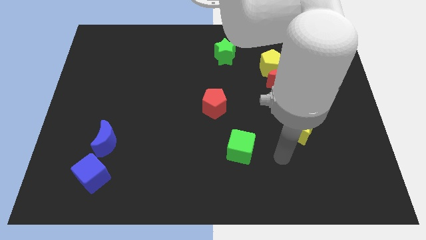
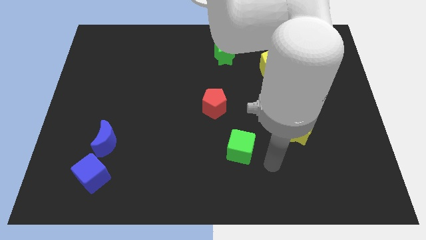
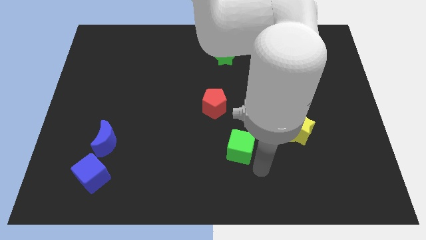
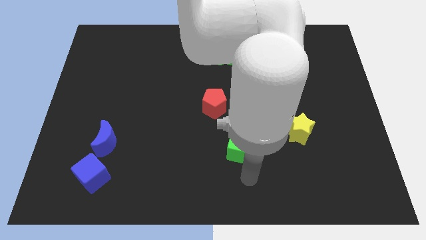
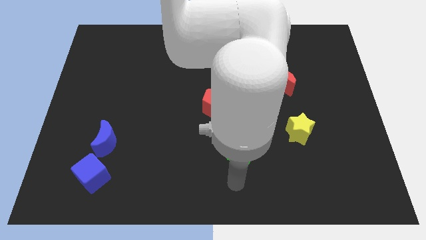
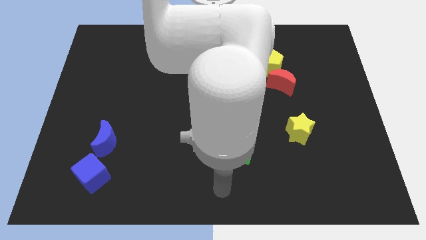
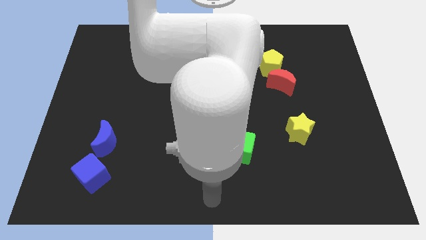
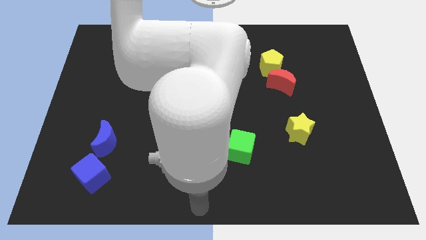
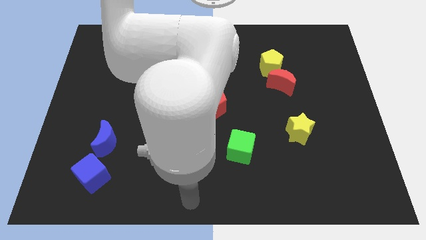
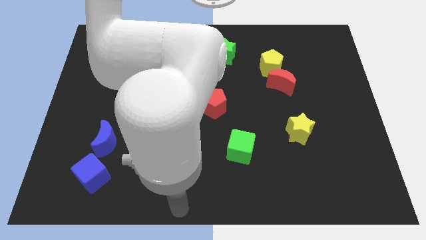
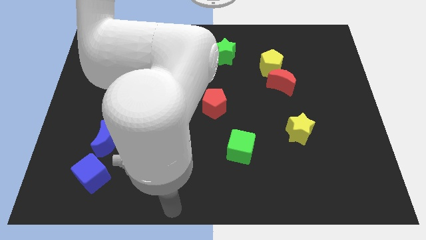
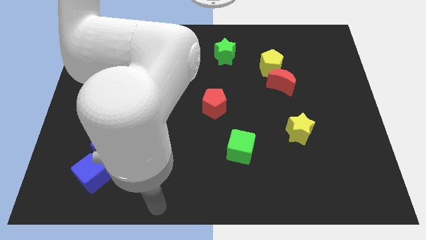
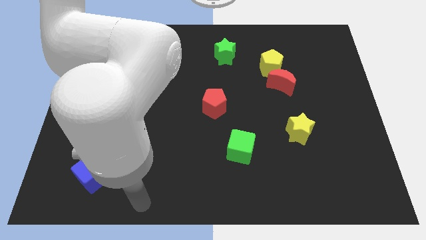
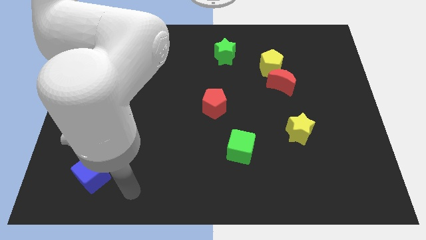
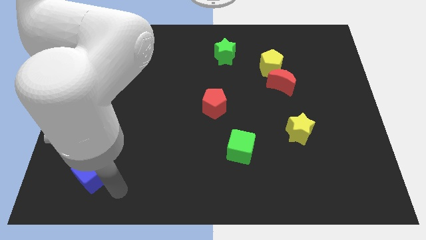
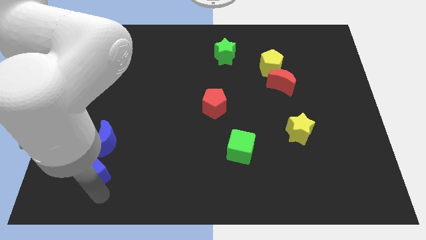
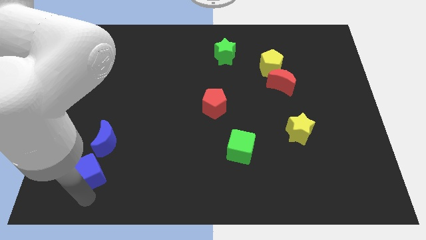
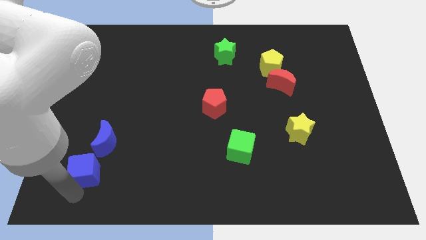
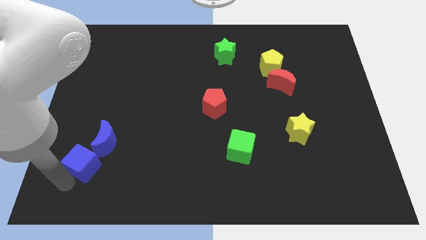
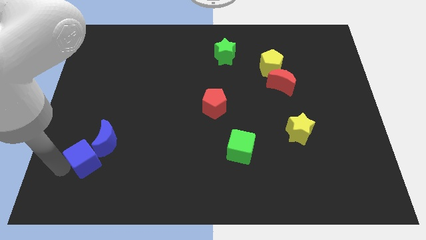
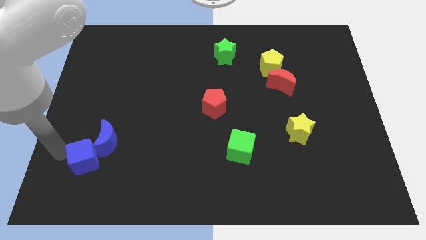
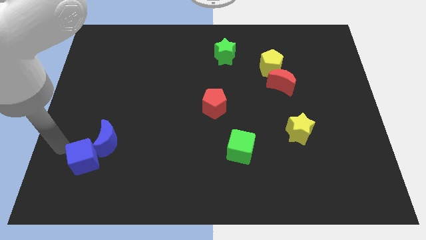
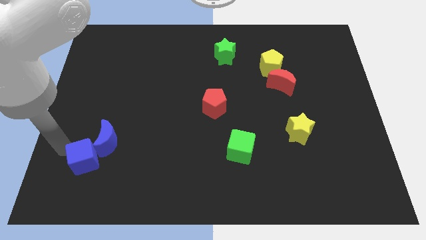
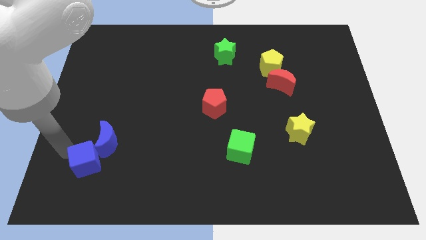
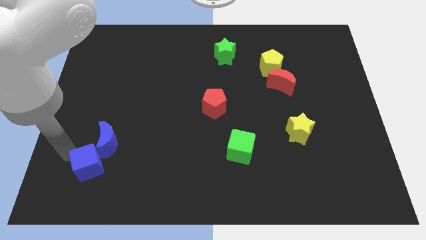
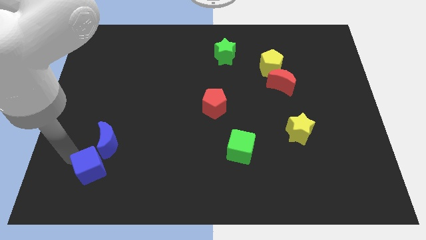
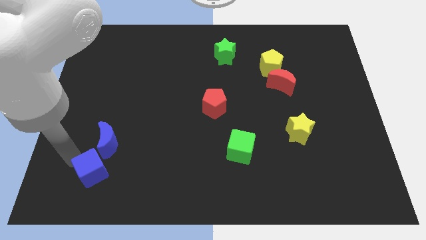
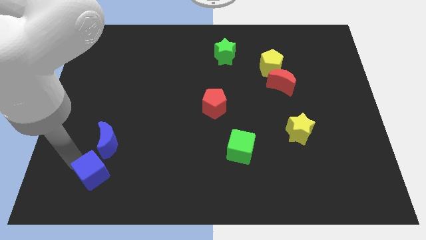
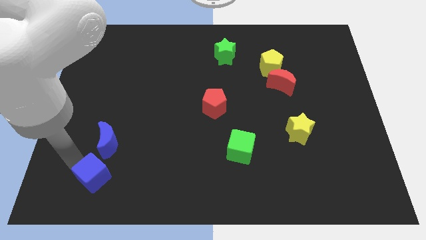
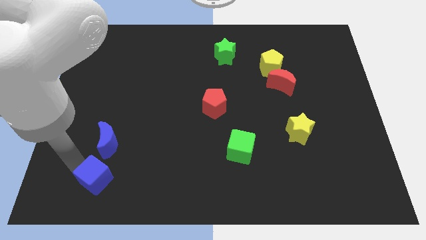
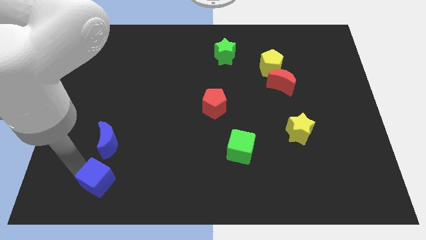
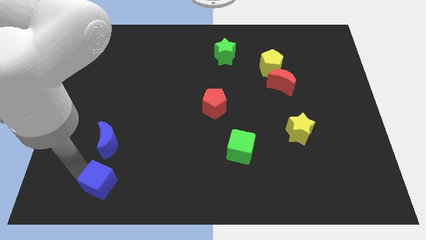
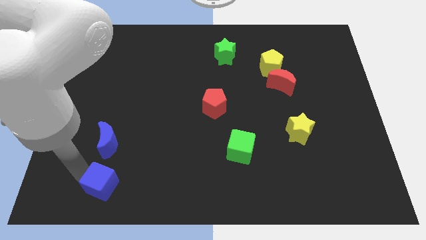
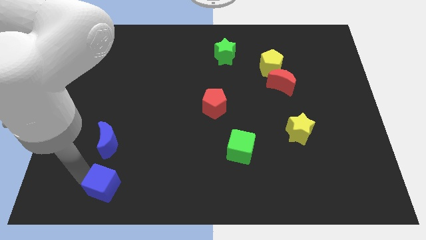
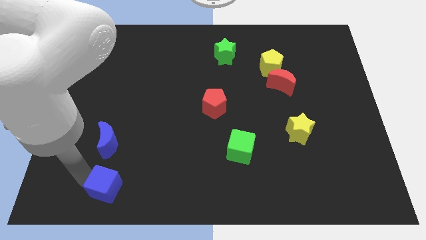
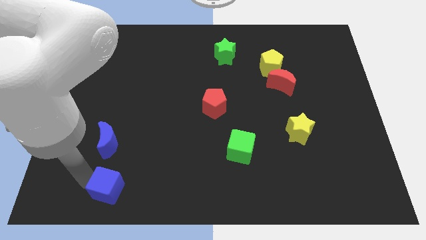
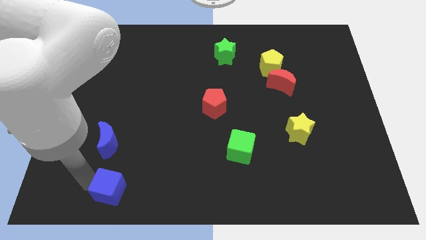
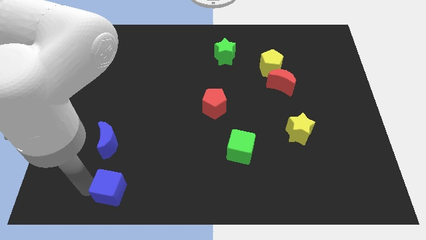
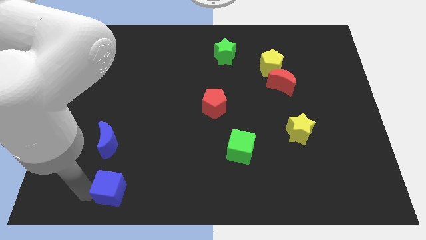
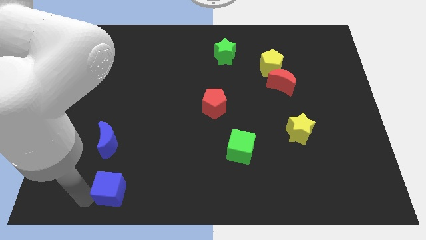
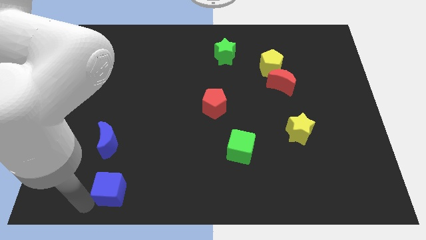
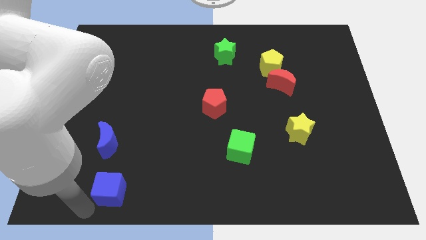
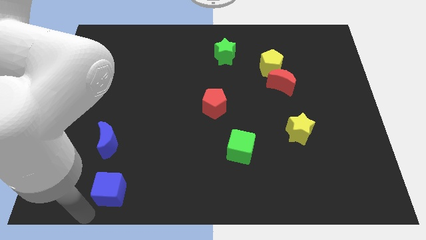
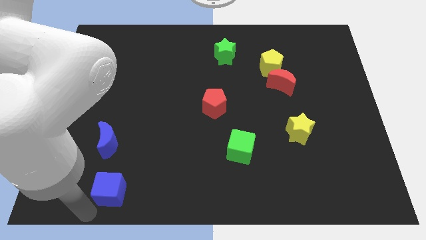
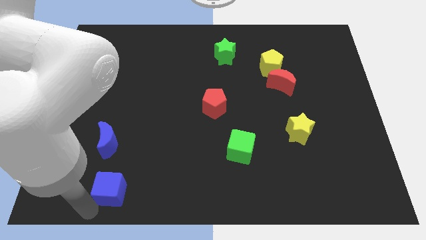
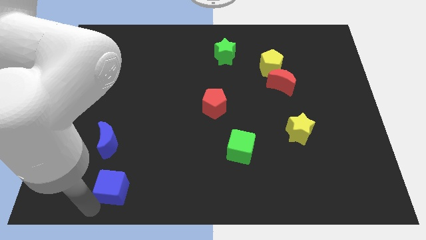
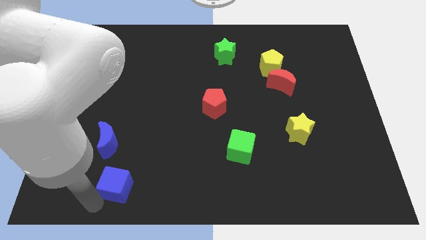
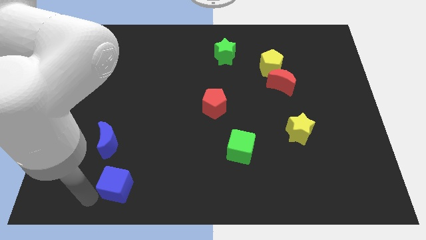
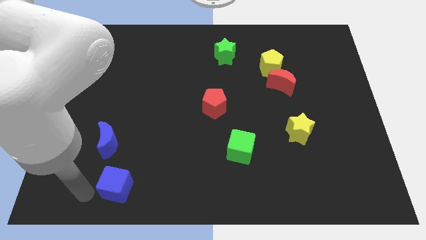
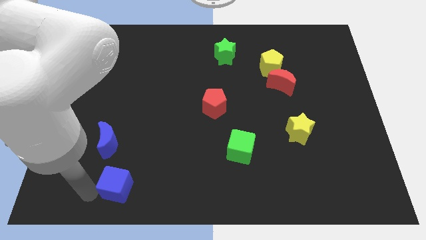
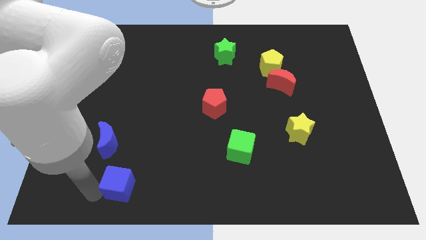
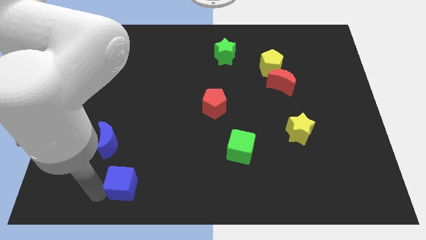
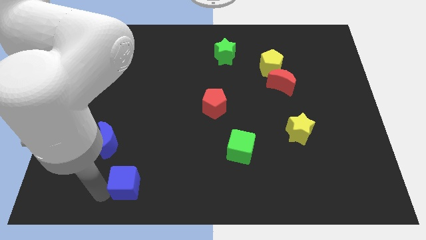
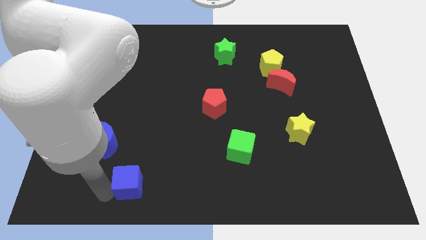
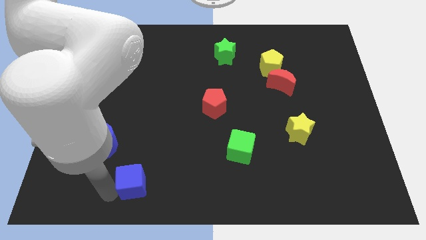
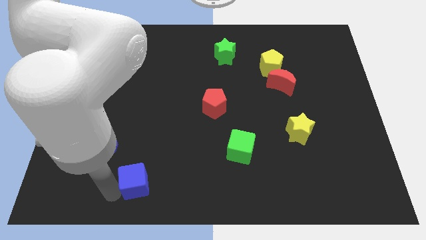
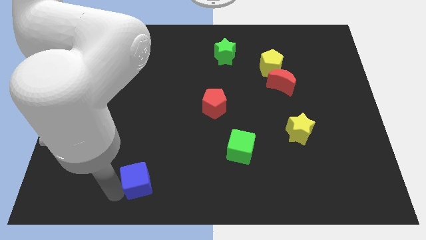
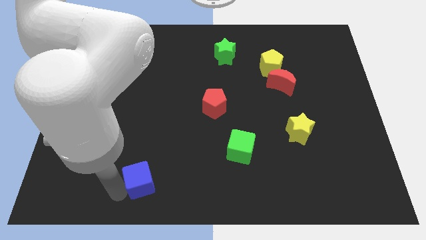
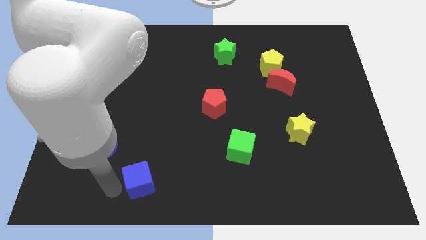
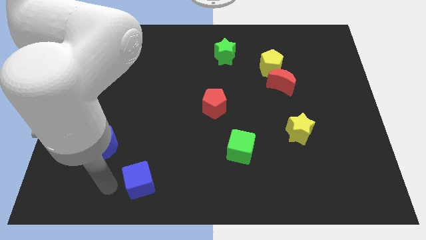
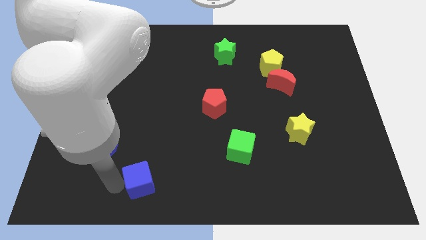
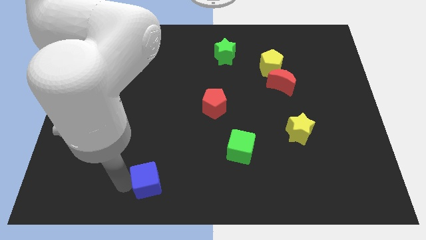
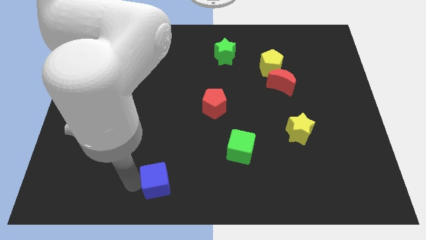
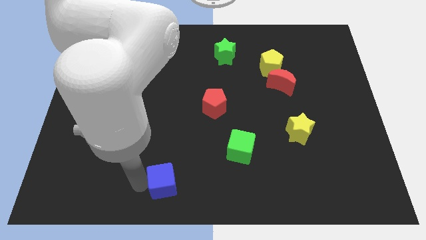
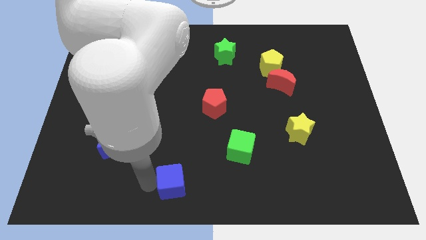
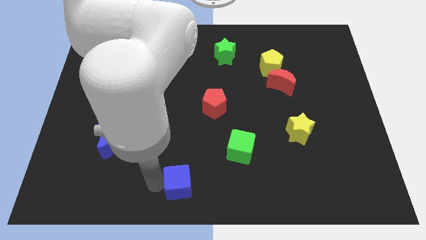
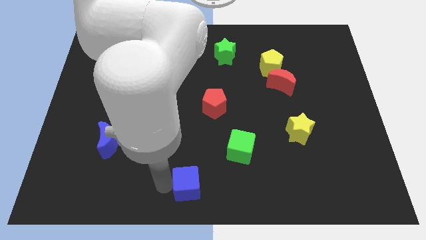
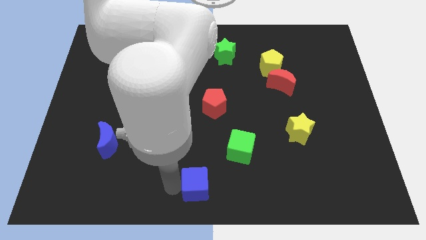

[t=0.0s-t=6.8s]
slide the blue cube to the right

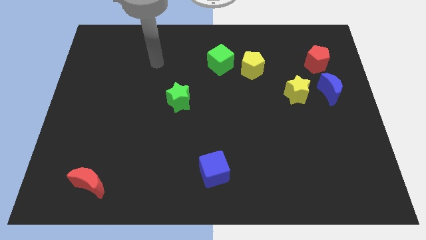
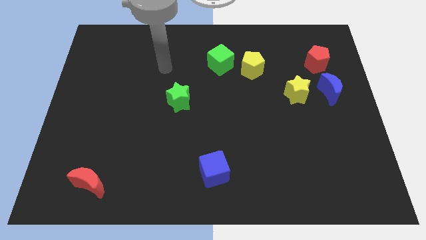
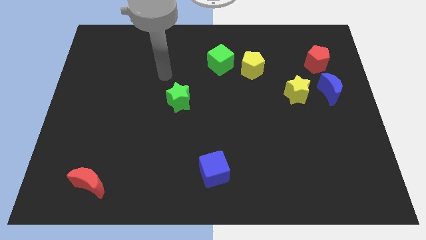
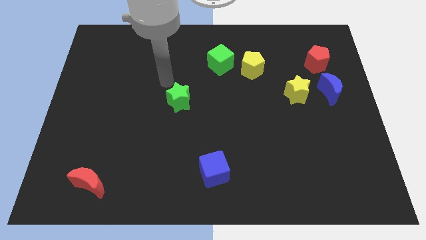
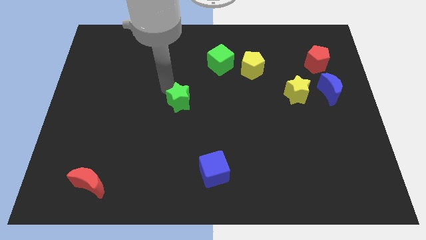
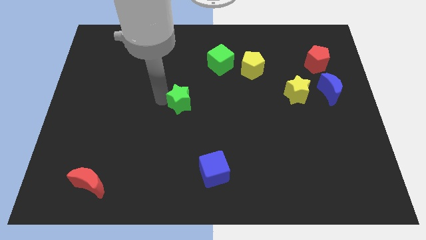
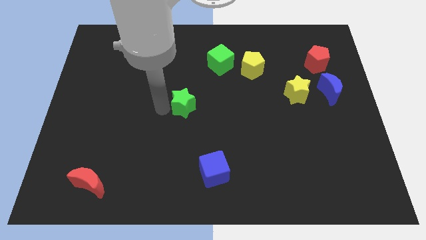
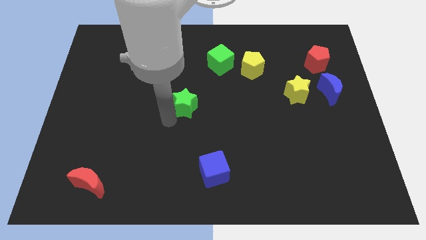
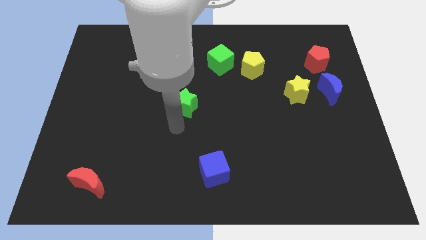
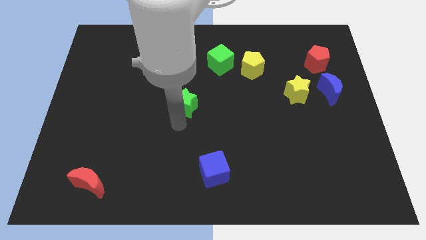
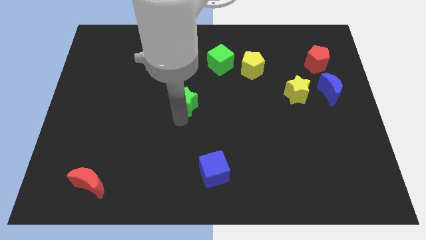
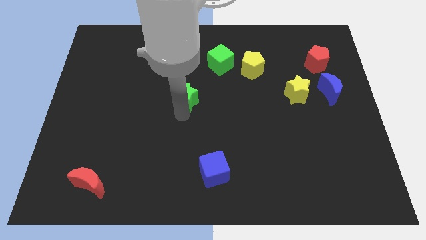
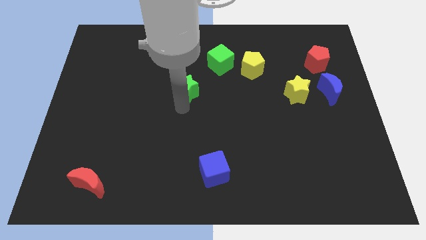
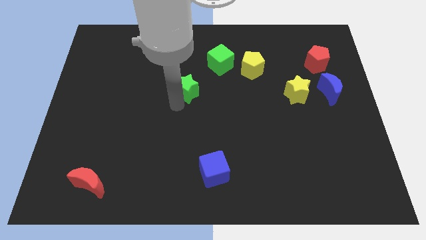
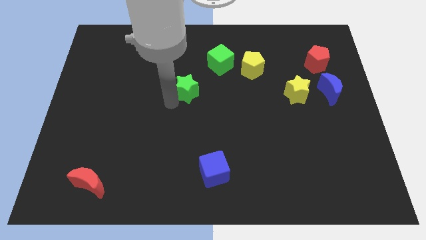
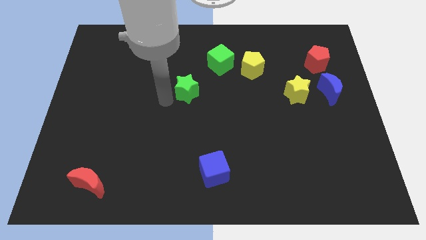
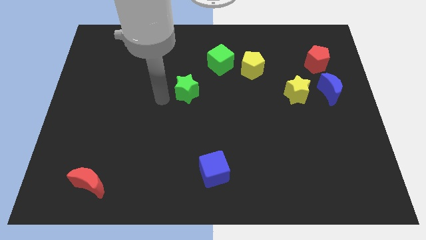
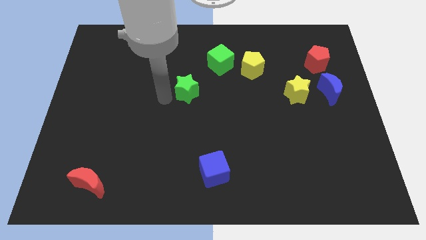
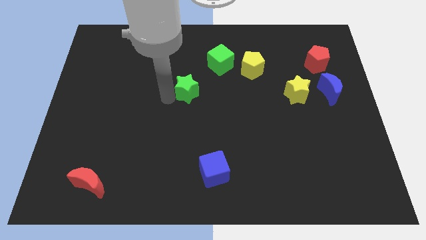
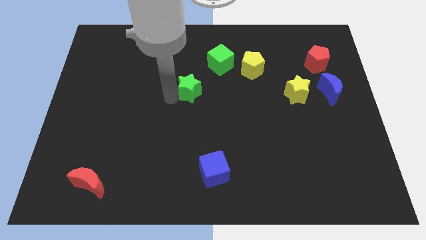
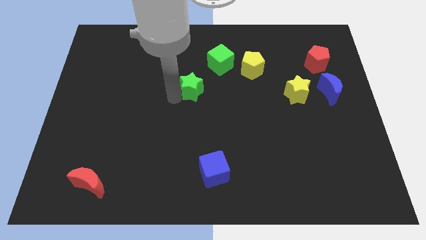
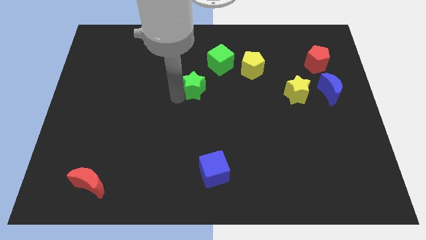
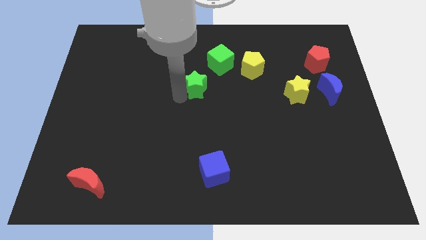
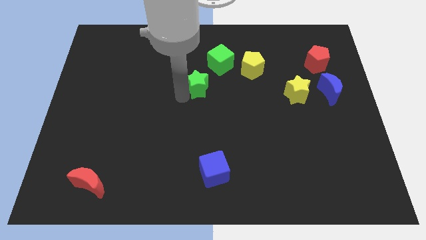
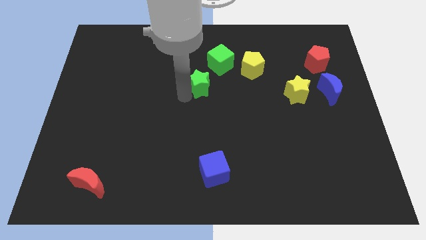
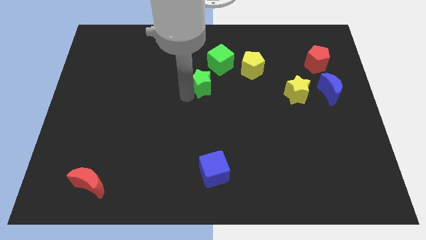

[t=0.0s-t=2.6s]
slightly move the green star up and then right
